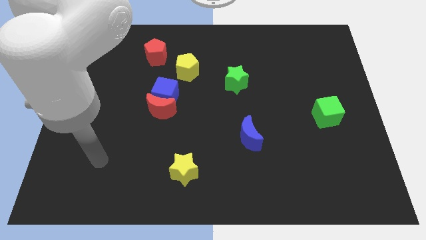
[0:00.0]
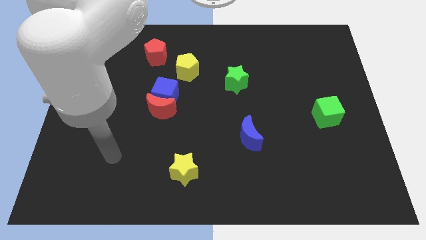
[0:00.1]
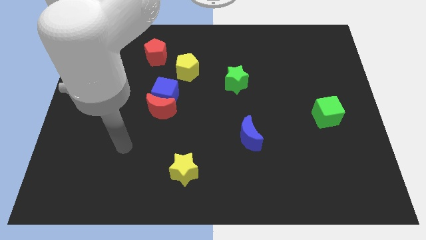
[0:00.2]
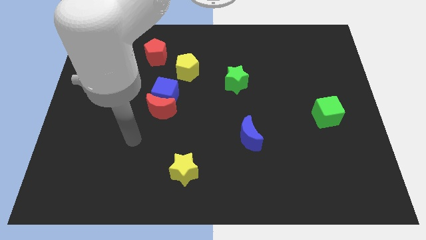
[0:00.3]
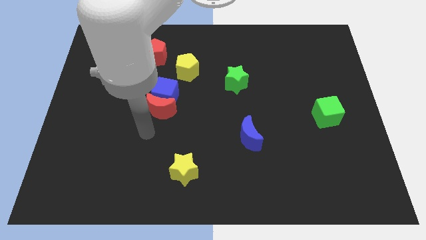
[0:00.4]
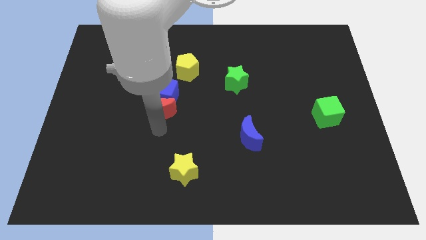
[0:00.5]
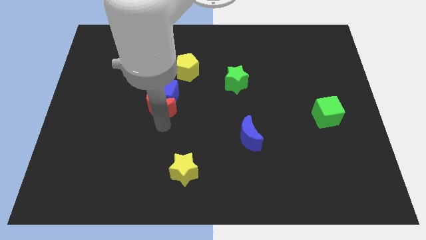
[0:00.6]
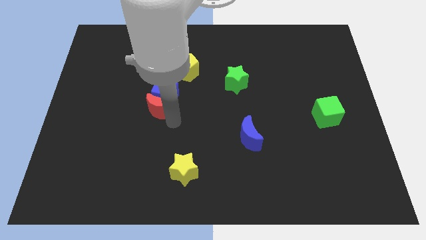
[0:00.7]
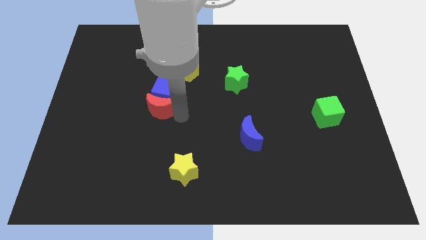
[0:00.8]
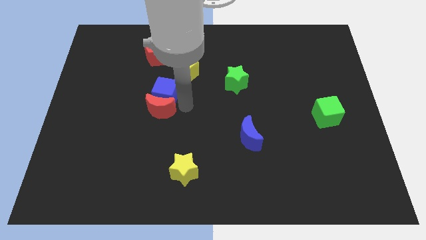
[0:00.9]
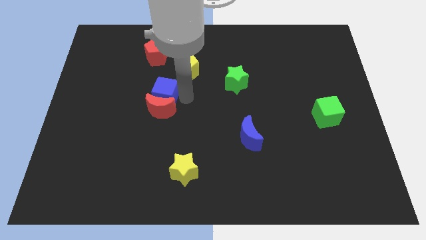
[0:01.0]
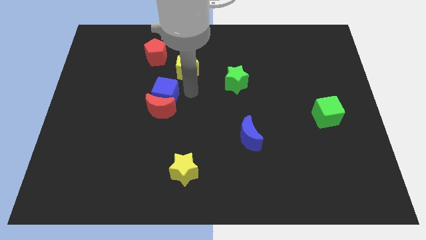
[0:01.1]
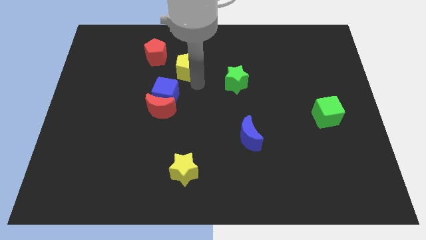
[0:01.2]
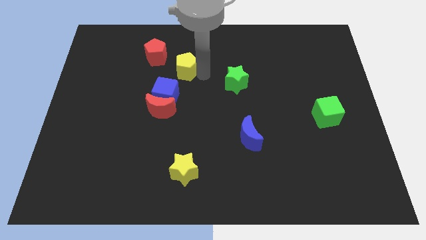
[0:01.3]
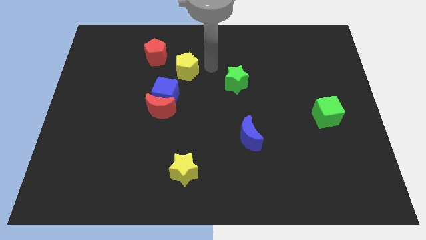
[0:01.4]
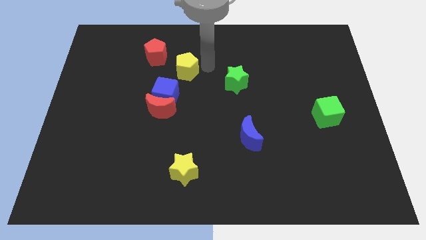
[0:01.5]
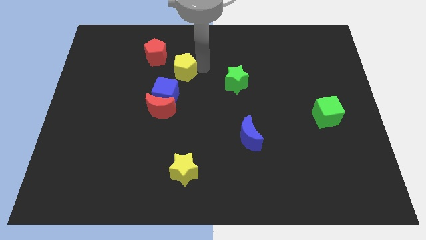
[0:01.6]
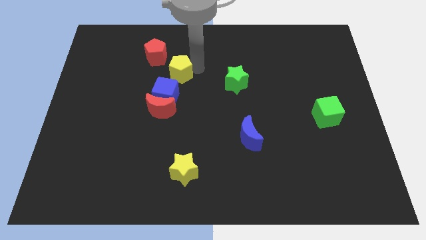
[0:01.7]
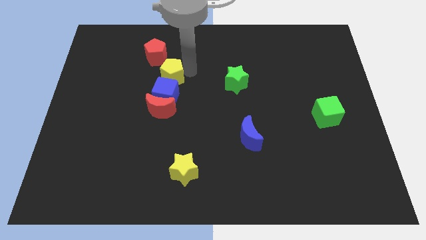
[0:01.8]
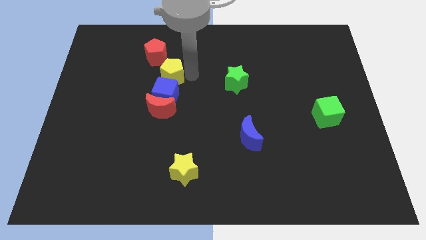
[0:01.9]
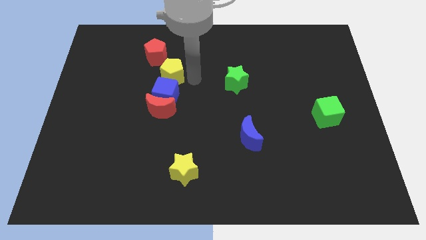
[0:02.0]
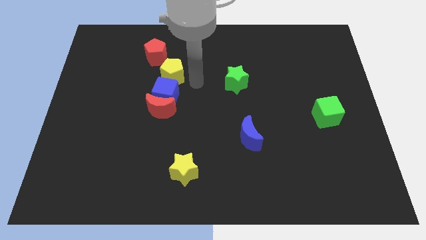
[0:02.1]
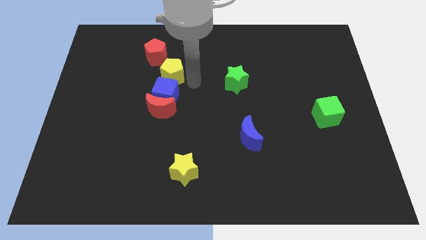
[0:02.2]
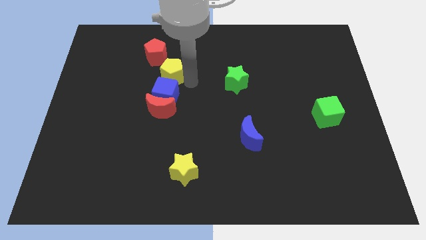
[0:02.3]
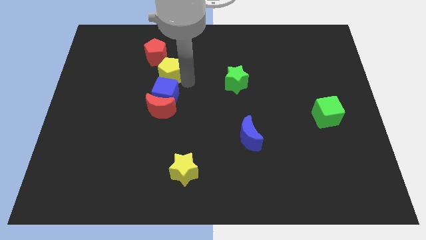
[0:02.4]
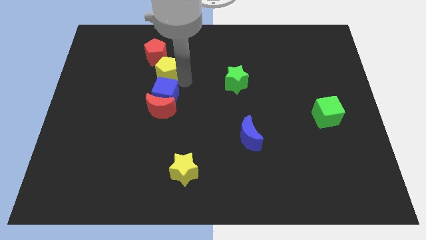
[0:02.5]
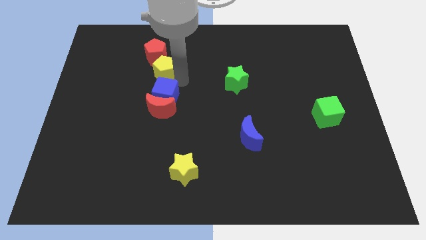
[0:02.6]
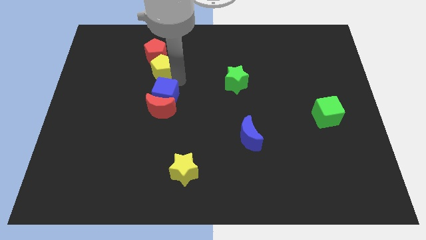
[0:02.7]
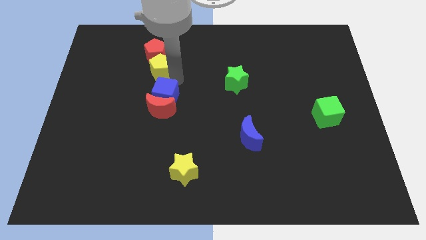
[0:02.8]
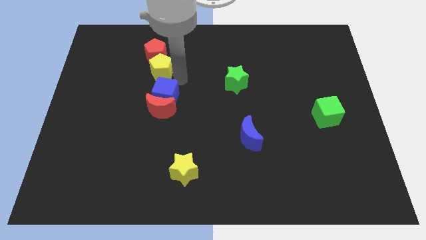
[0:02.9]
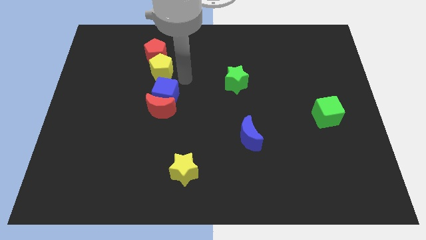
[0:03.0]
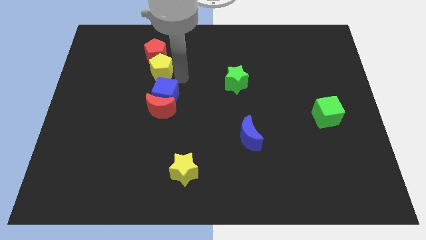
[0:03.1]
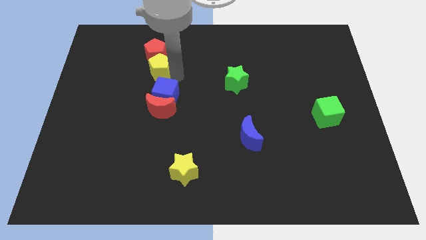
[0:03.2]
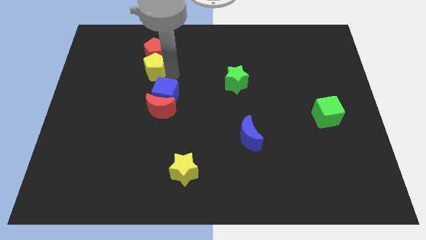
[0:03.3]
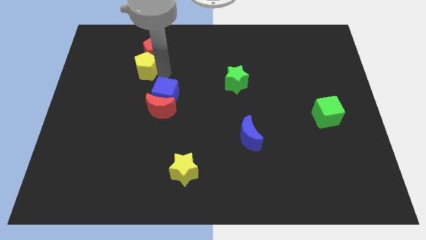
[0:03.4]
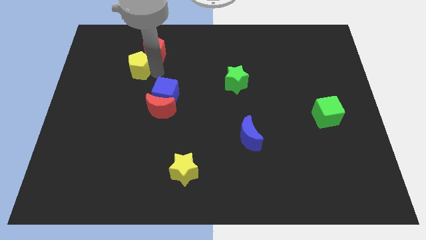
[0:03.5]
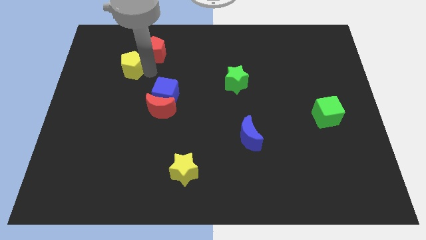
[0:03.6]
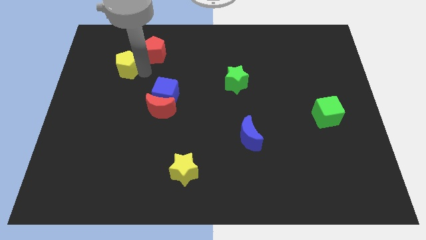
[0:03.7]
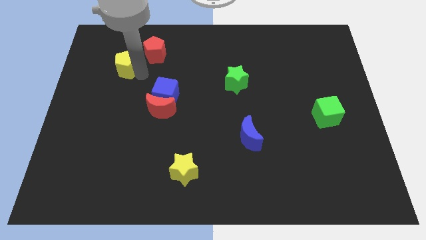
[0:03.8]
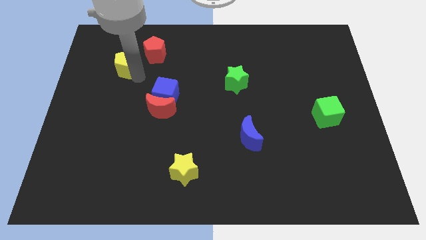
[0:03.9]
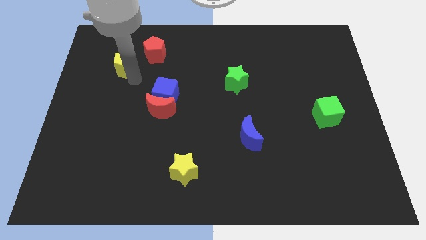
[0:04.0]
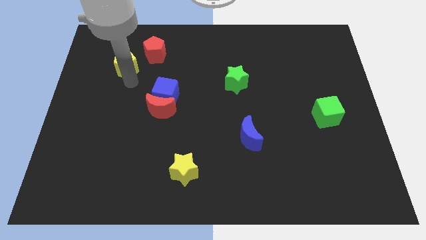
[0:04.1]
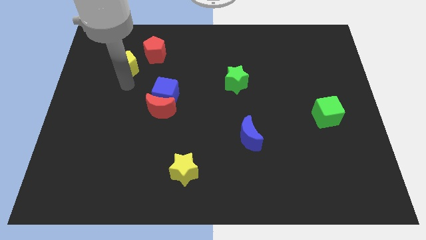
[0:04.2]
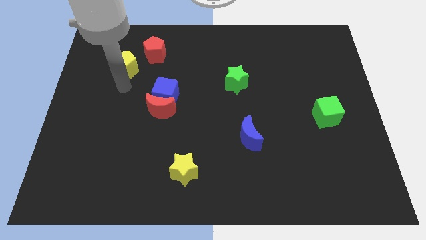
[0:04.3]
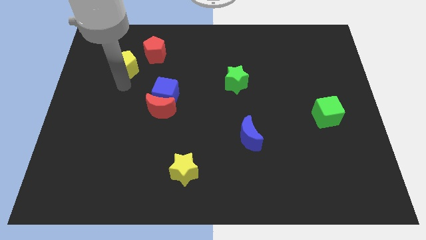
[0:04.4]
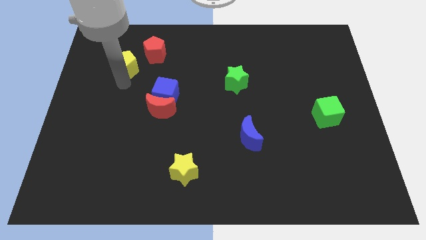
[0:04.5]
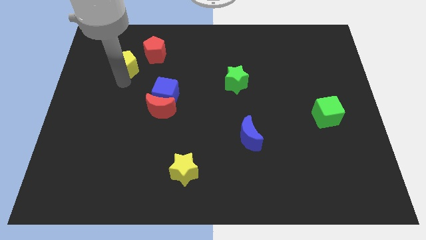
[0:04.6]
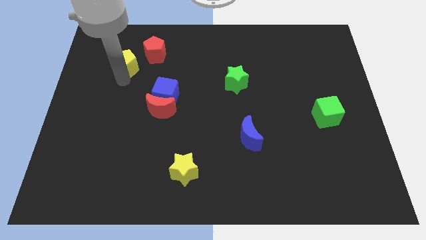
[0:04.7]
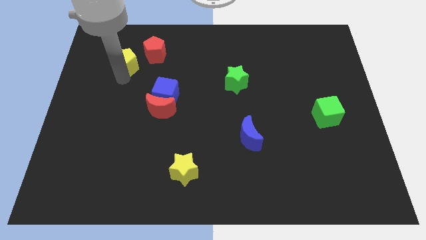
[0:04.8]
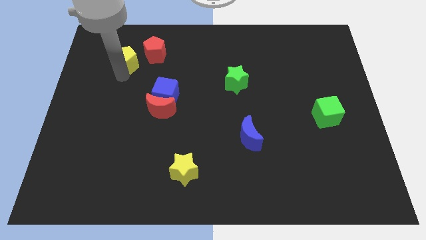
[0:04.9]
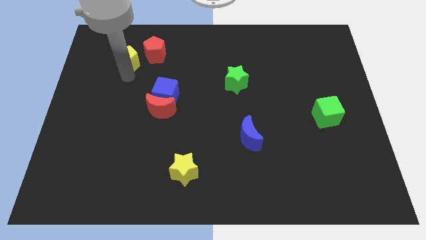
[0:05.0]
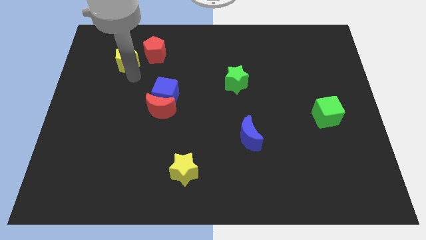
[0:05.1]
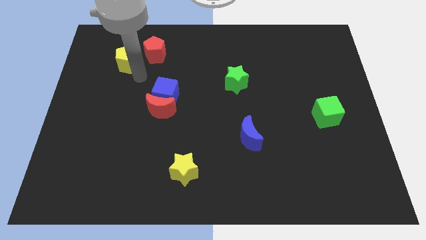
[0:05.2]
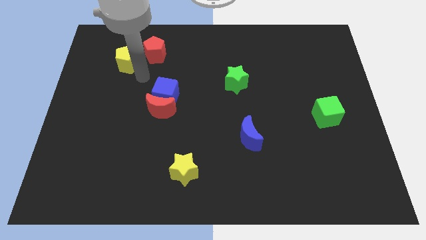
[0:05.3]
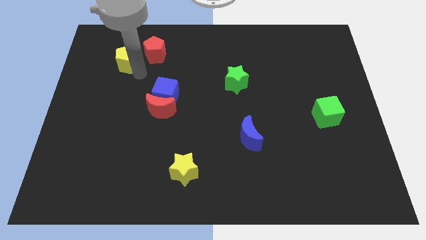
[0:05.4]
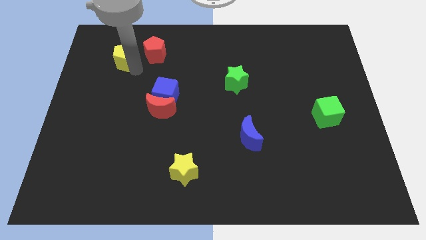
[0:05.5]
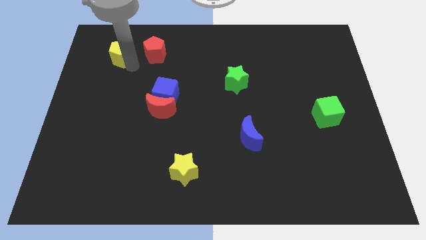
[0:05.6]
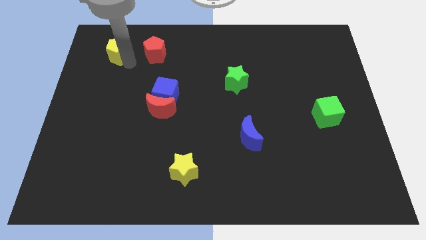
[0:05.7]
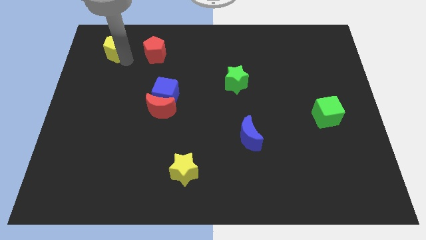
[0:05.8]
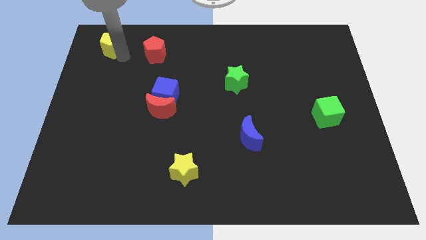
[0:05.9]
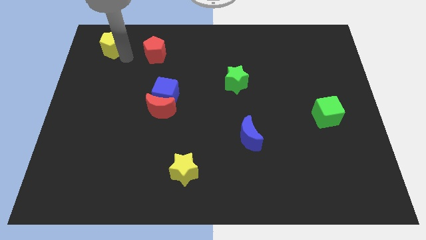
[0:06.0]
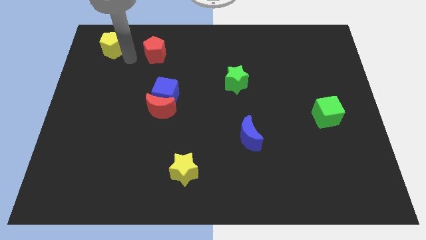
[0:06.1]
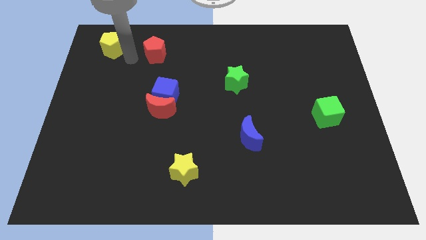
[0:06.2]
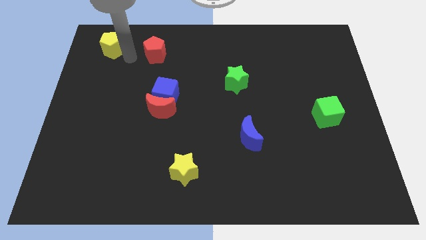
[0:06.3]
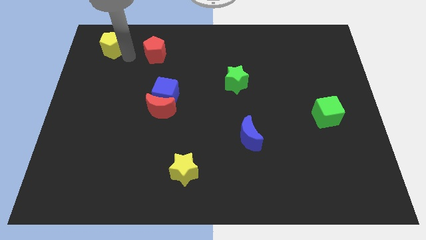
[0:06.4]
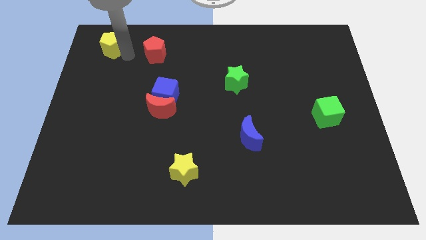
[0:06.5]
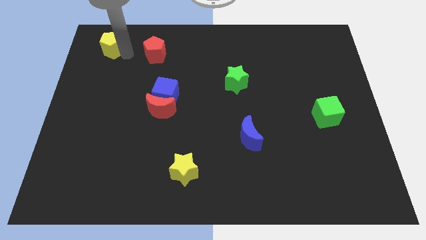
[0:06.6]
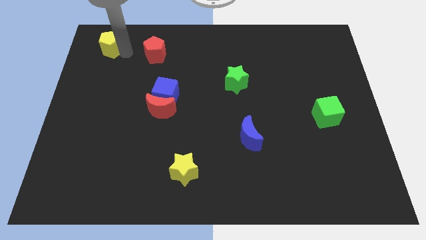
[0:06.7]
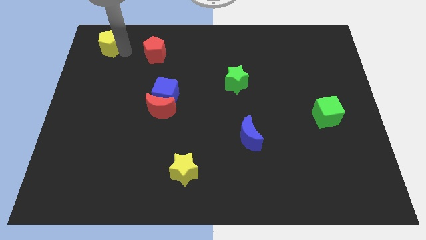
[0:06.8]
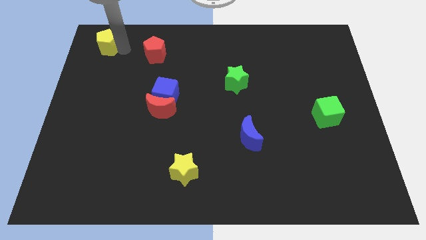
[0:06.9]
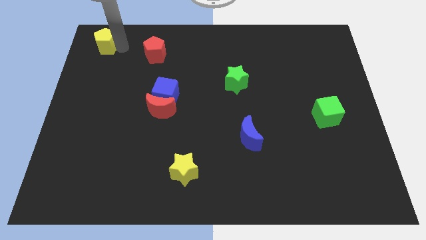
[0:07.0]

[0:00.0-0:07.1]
move the yellow pentagon to the top left
